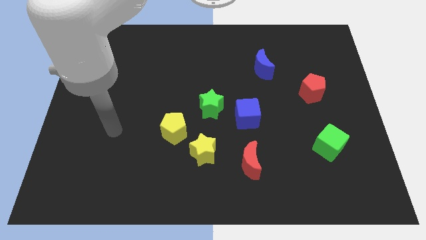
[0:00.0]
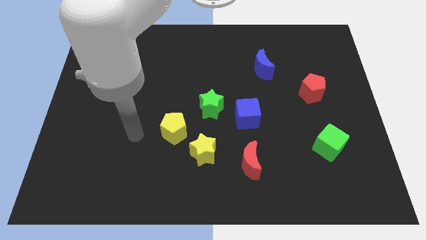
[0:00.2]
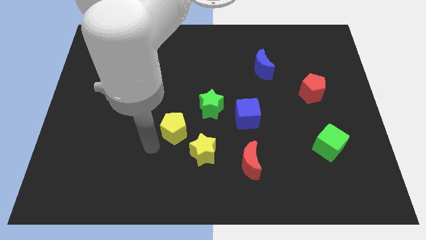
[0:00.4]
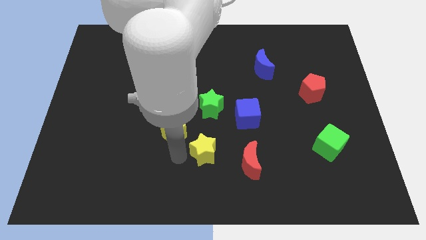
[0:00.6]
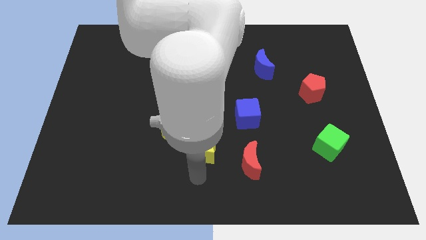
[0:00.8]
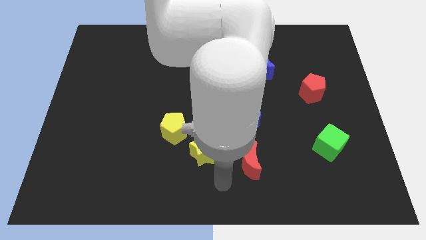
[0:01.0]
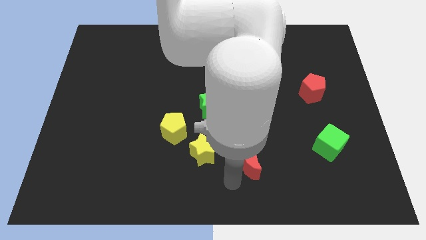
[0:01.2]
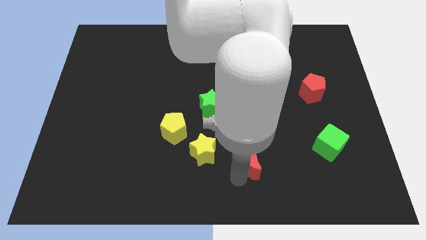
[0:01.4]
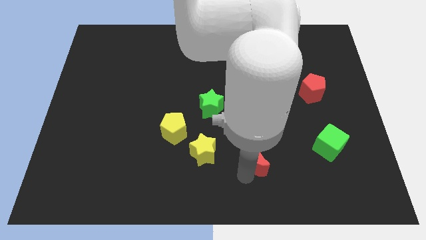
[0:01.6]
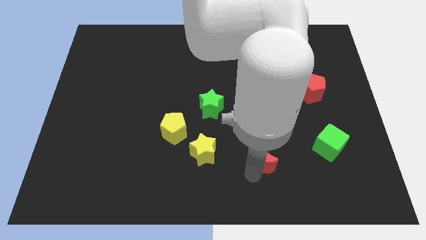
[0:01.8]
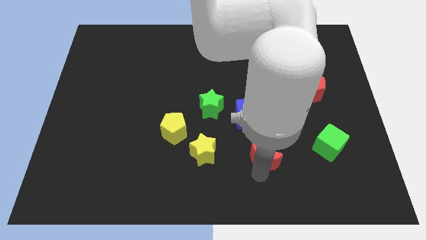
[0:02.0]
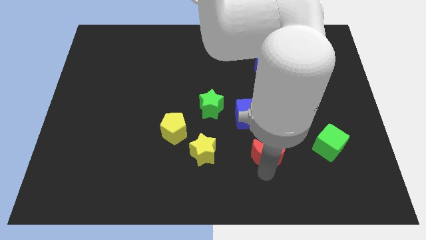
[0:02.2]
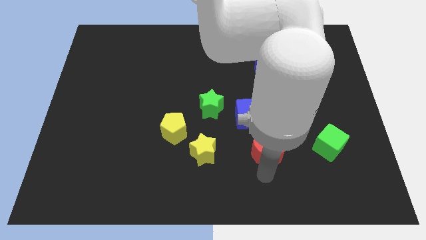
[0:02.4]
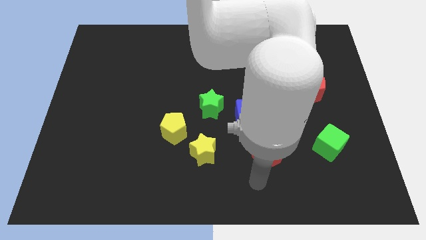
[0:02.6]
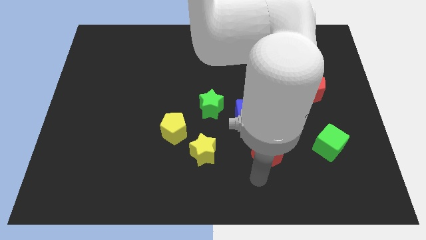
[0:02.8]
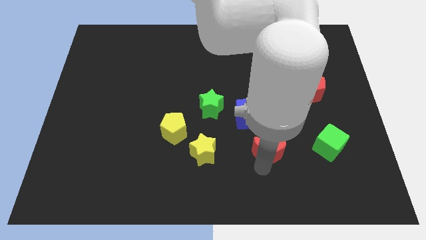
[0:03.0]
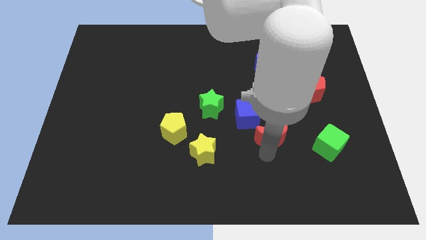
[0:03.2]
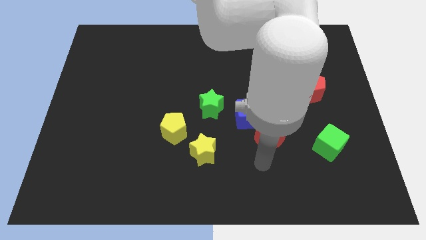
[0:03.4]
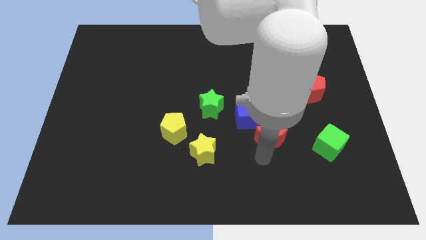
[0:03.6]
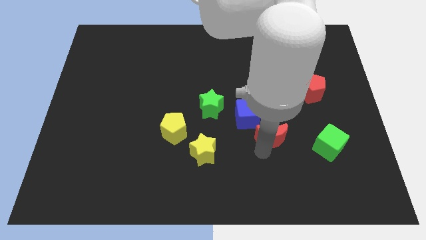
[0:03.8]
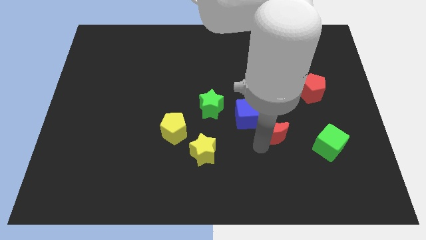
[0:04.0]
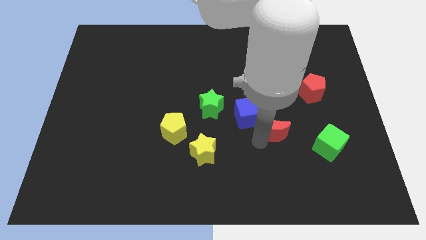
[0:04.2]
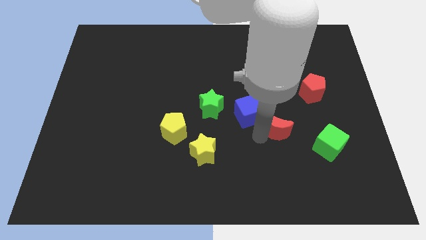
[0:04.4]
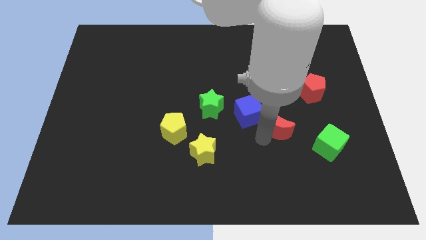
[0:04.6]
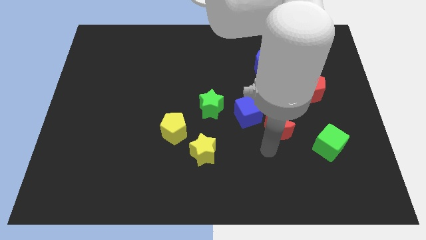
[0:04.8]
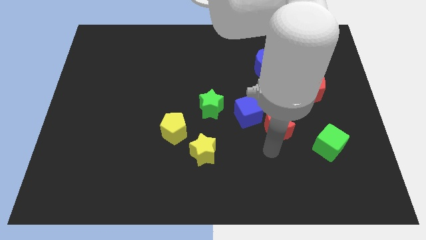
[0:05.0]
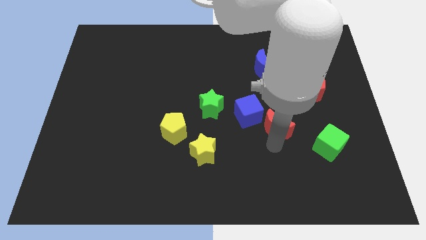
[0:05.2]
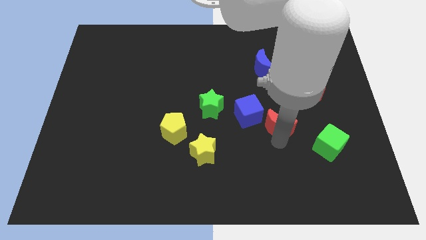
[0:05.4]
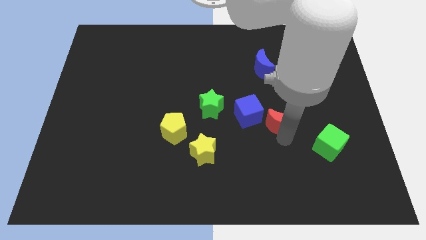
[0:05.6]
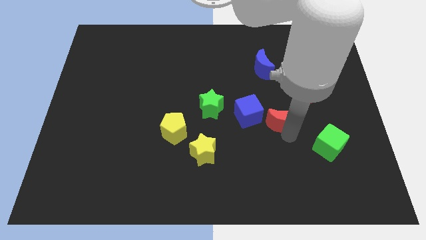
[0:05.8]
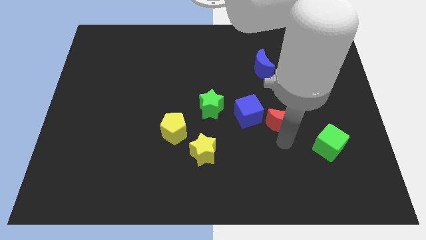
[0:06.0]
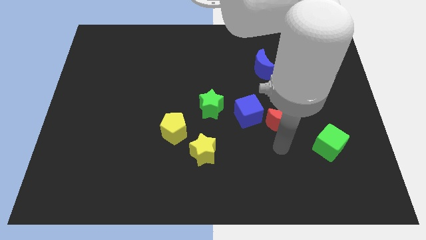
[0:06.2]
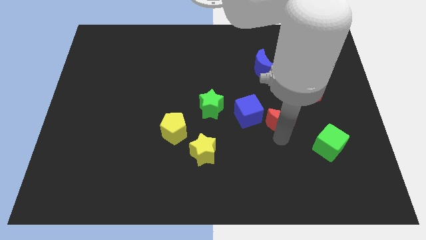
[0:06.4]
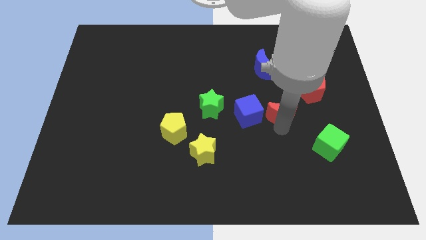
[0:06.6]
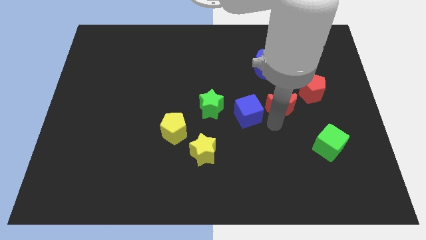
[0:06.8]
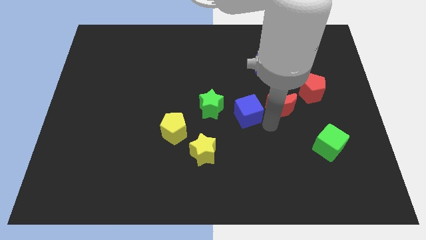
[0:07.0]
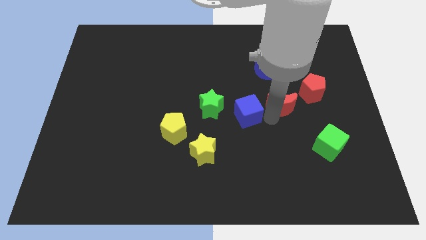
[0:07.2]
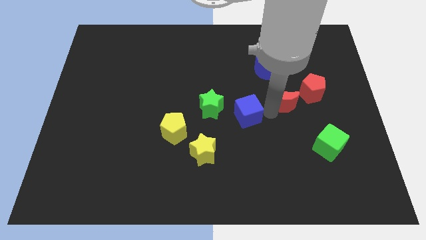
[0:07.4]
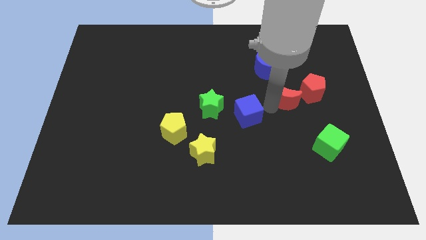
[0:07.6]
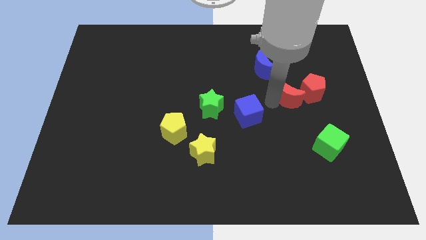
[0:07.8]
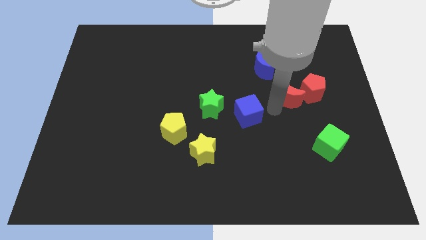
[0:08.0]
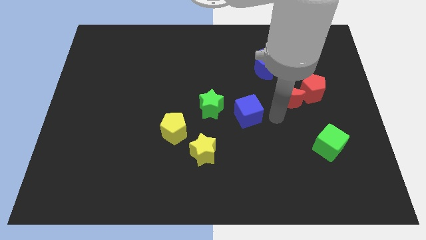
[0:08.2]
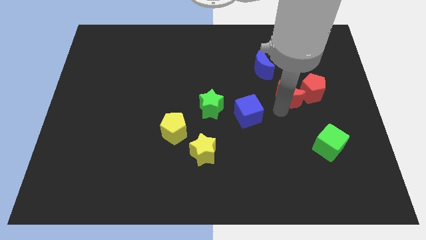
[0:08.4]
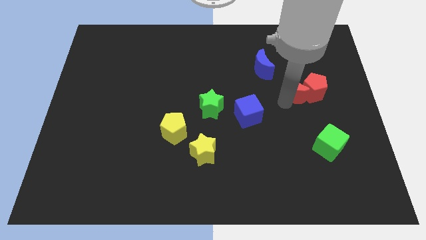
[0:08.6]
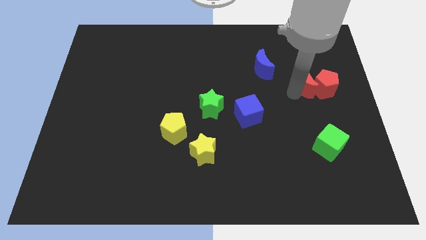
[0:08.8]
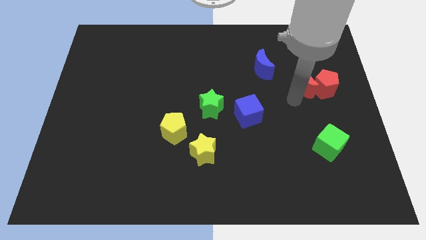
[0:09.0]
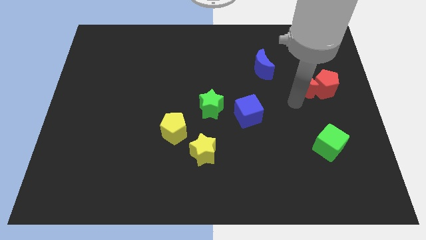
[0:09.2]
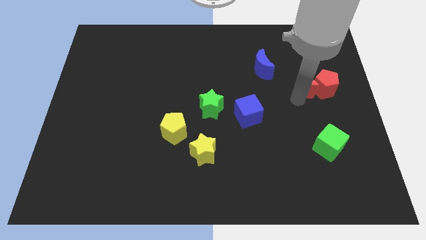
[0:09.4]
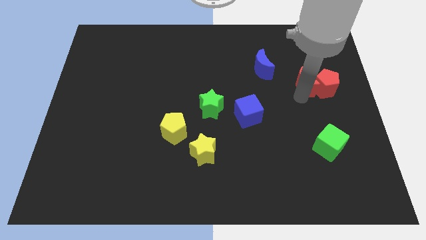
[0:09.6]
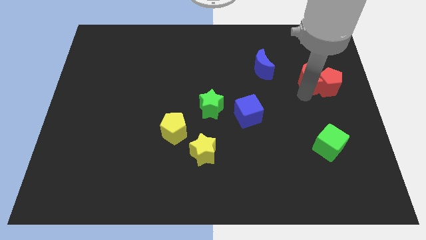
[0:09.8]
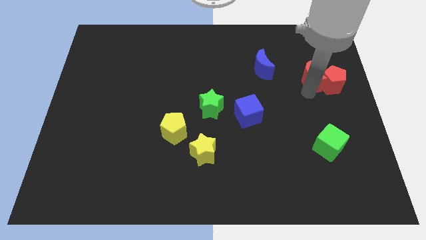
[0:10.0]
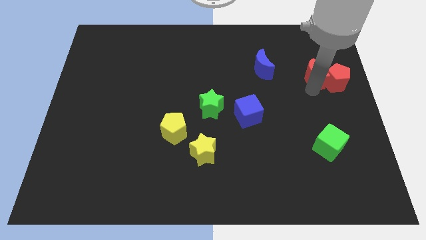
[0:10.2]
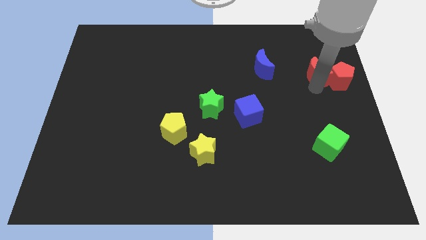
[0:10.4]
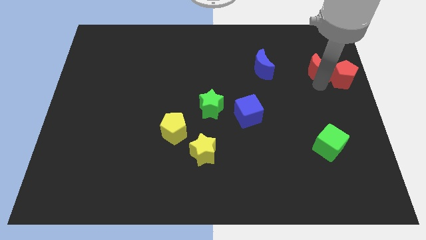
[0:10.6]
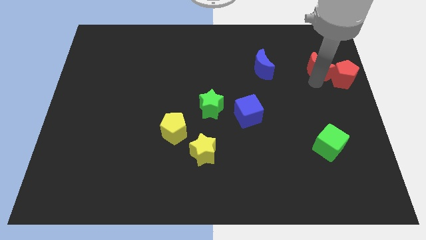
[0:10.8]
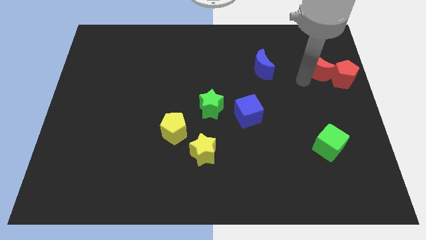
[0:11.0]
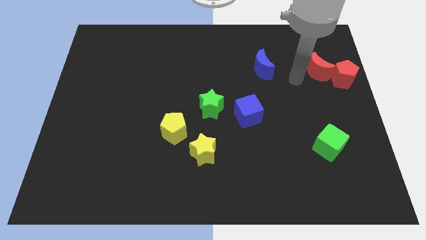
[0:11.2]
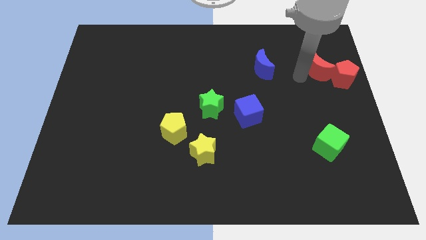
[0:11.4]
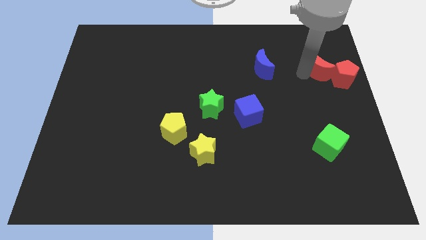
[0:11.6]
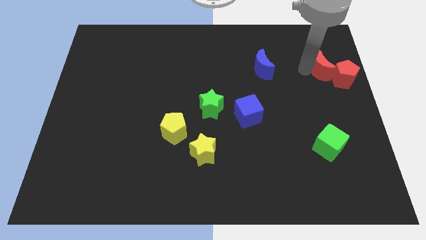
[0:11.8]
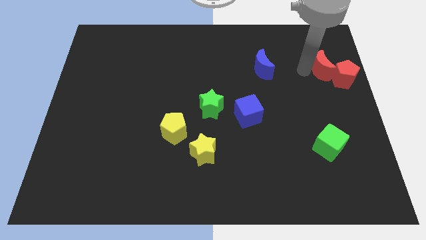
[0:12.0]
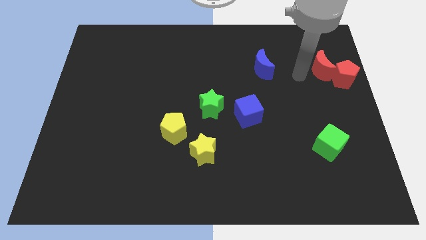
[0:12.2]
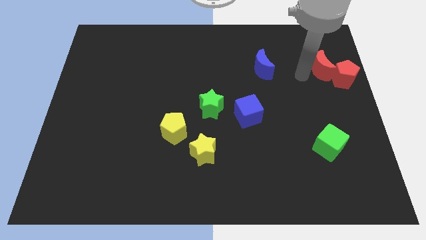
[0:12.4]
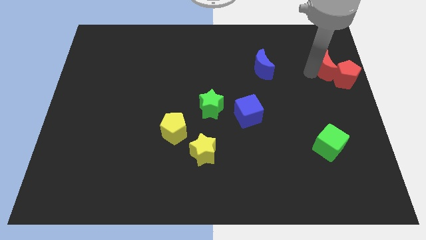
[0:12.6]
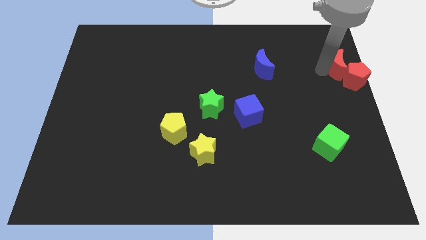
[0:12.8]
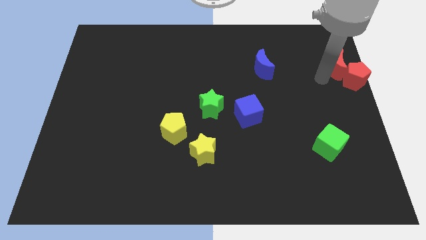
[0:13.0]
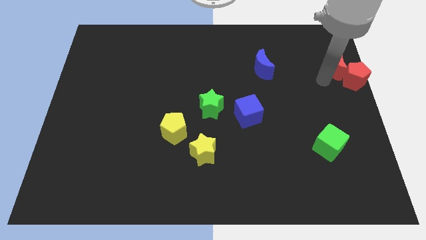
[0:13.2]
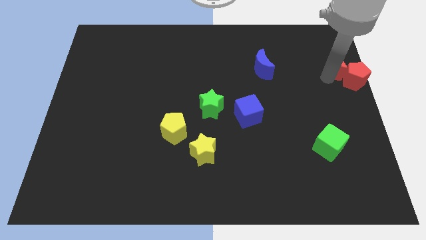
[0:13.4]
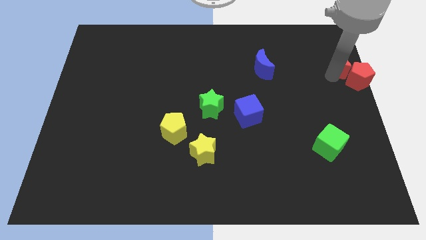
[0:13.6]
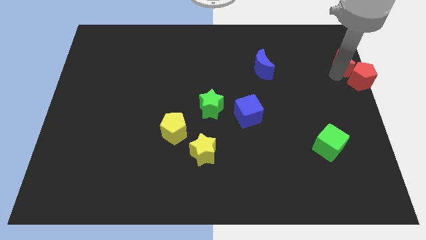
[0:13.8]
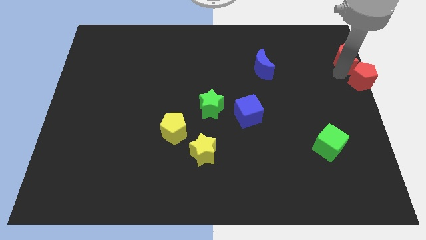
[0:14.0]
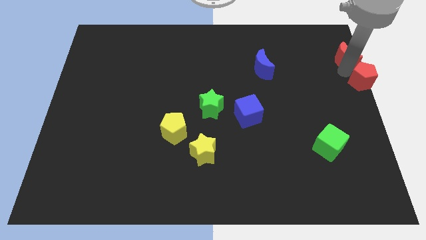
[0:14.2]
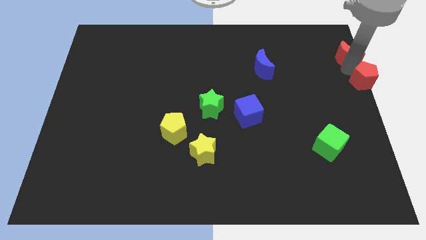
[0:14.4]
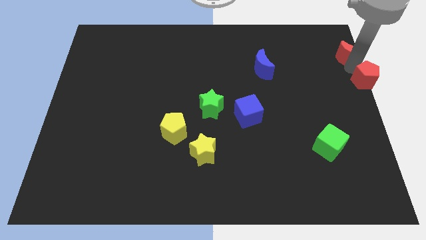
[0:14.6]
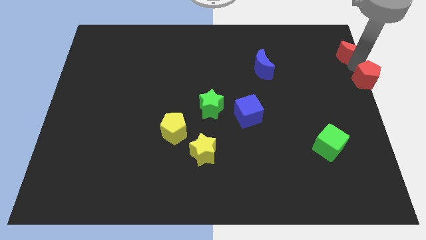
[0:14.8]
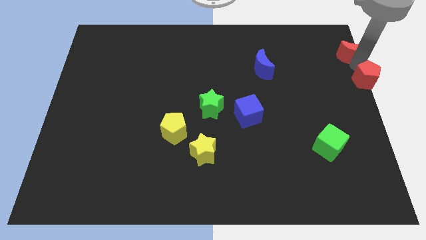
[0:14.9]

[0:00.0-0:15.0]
move the red moon to the top right of the board
